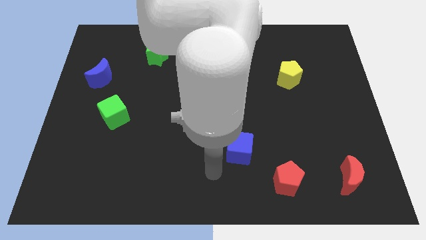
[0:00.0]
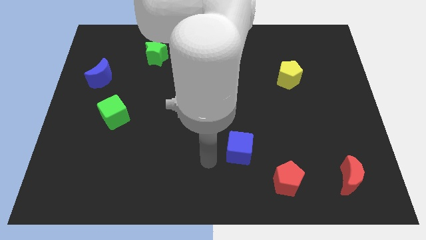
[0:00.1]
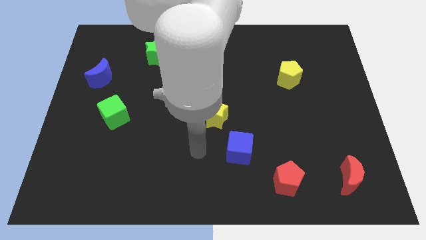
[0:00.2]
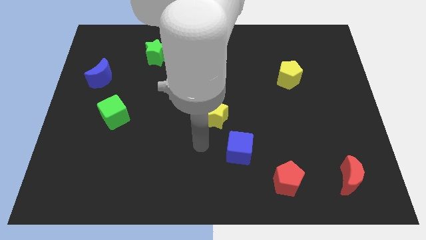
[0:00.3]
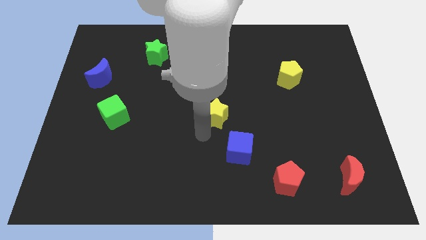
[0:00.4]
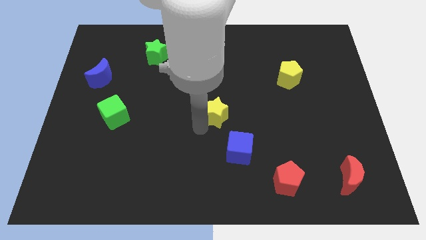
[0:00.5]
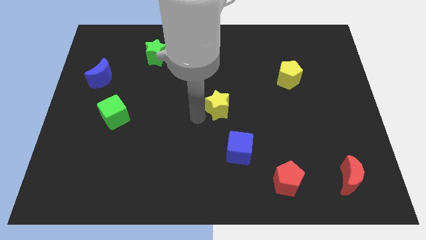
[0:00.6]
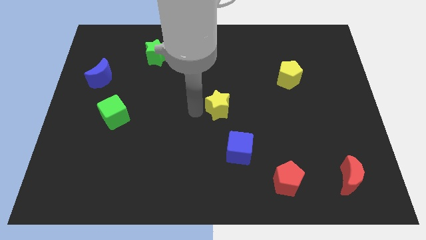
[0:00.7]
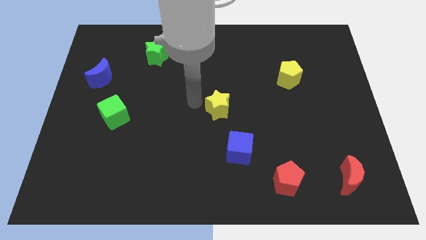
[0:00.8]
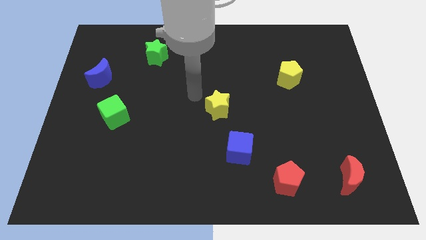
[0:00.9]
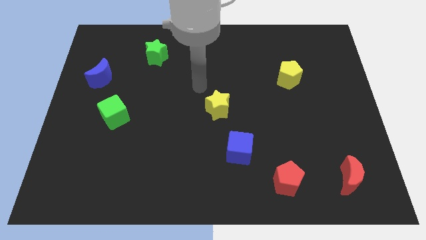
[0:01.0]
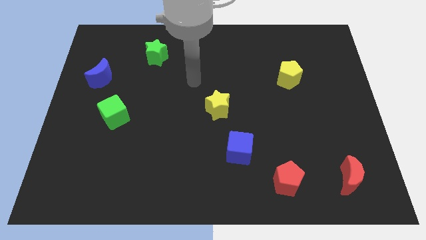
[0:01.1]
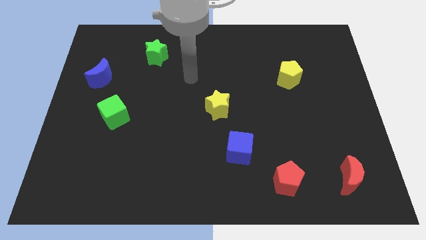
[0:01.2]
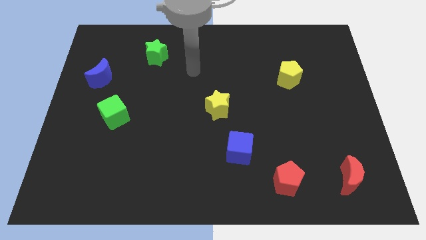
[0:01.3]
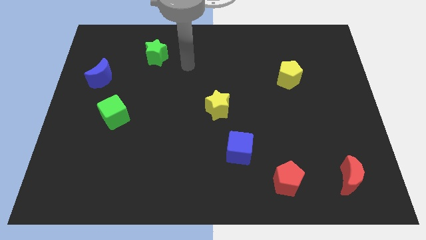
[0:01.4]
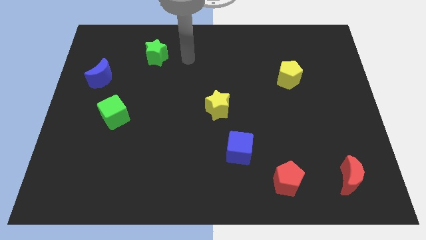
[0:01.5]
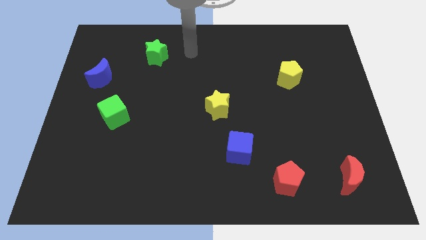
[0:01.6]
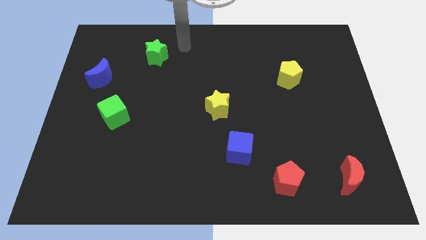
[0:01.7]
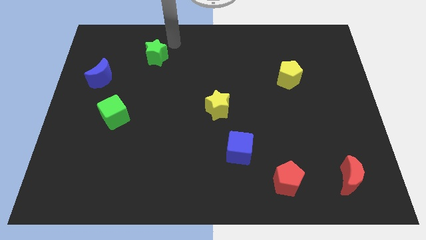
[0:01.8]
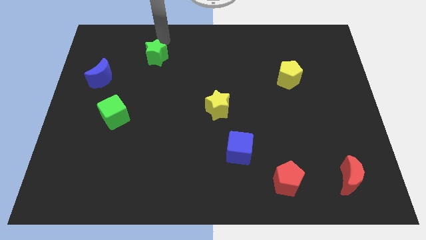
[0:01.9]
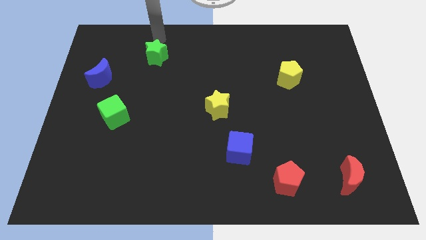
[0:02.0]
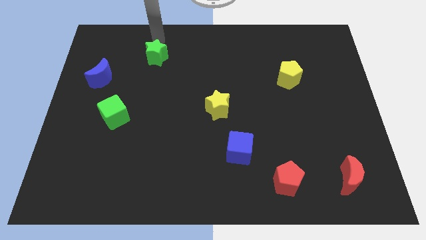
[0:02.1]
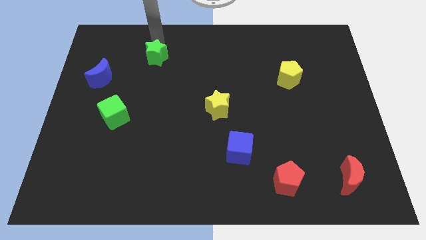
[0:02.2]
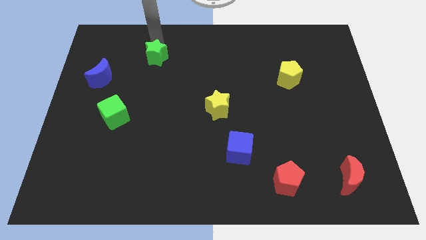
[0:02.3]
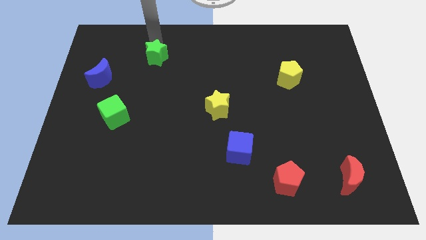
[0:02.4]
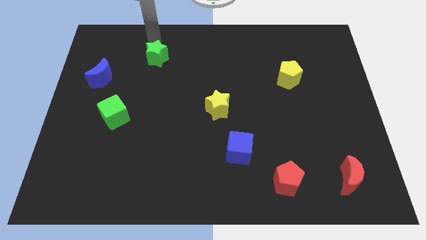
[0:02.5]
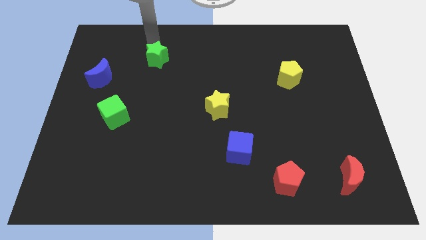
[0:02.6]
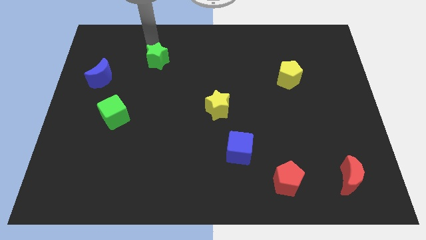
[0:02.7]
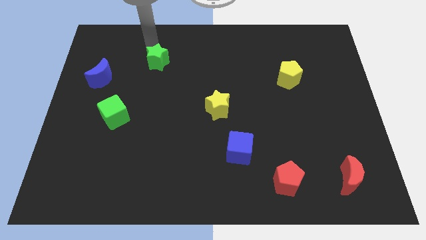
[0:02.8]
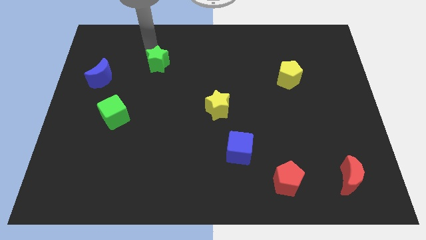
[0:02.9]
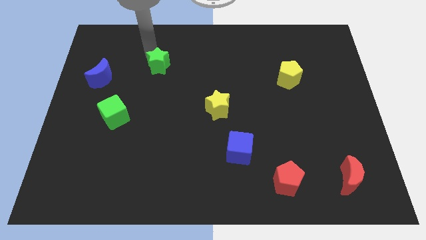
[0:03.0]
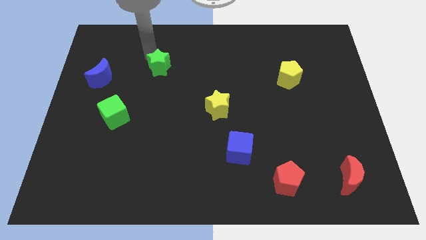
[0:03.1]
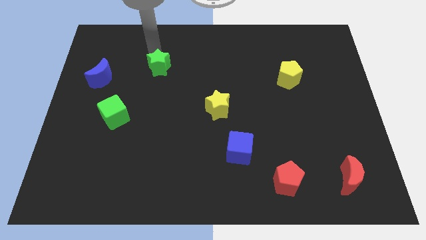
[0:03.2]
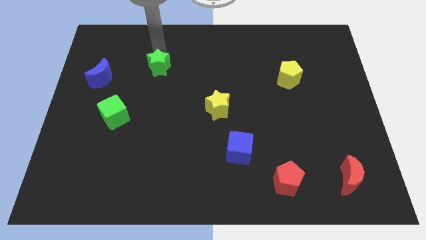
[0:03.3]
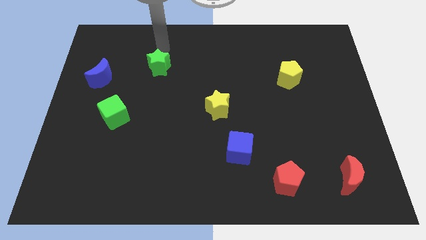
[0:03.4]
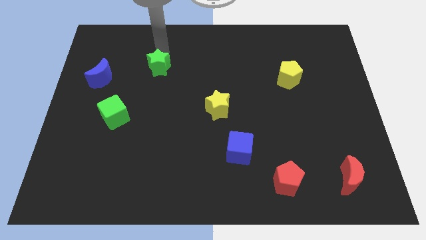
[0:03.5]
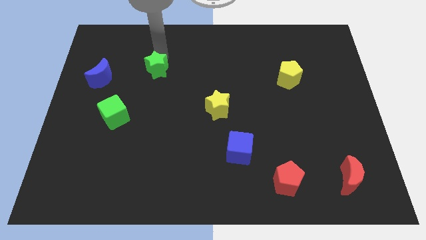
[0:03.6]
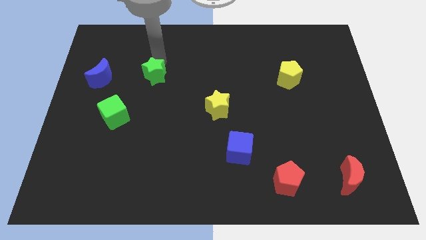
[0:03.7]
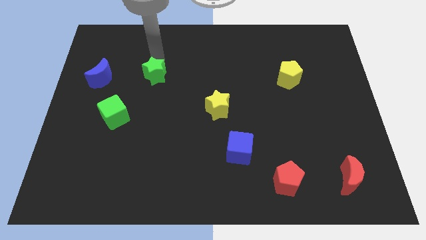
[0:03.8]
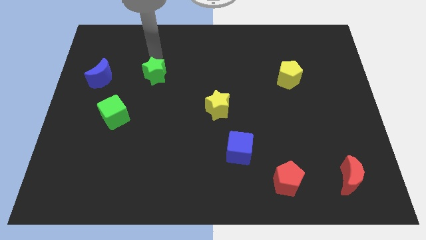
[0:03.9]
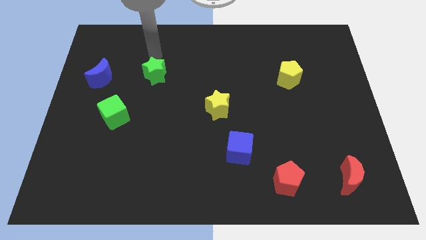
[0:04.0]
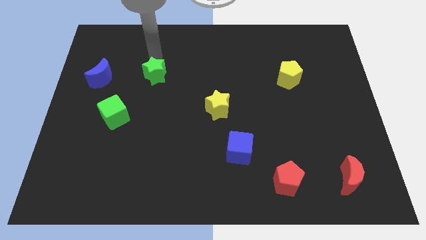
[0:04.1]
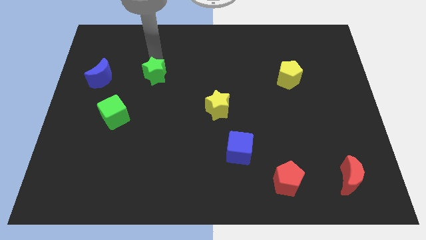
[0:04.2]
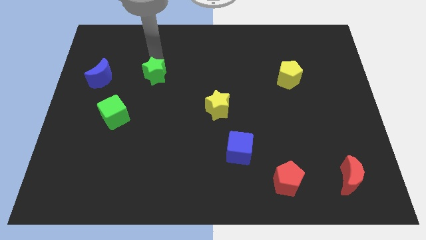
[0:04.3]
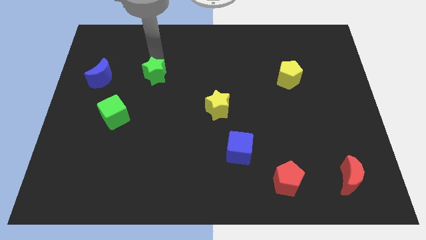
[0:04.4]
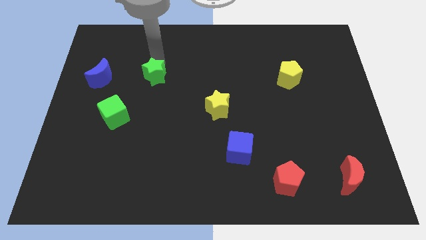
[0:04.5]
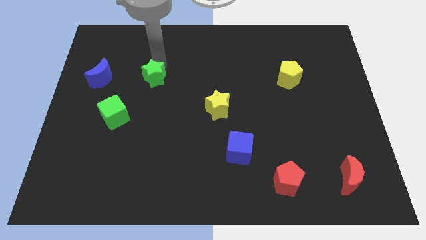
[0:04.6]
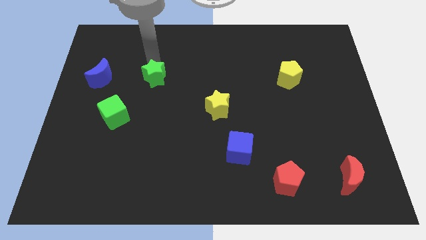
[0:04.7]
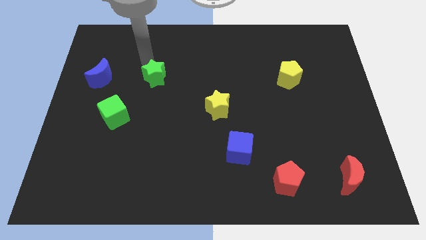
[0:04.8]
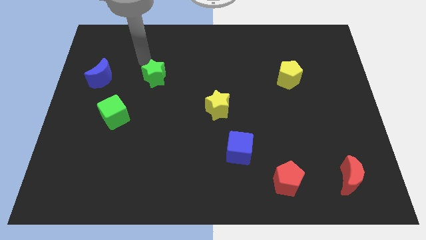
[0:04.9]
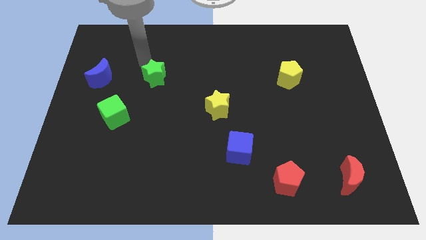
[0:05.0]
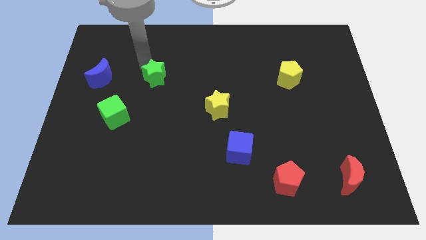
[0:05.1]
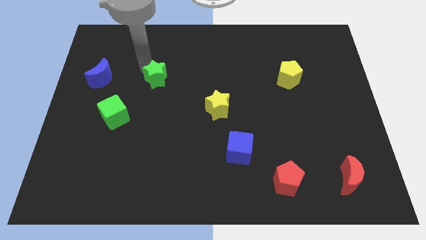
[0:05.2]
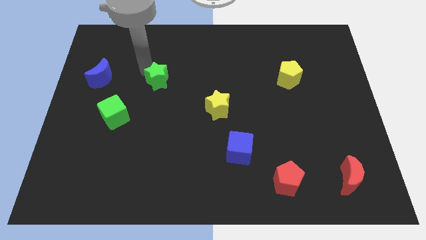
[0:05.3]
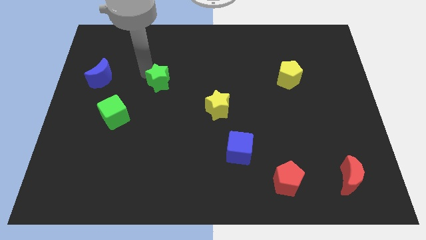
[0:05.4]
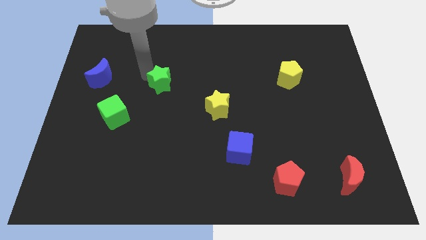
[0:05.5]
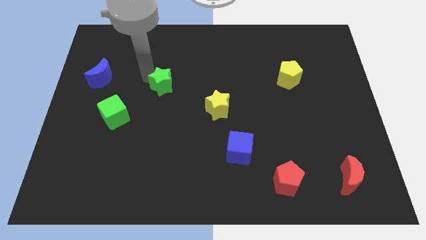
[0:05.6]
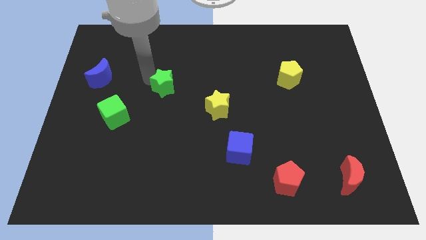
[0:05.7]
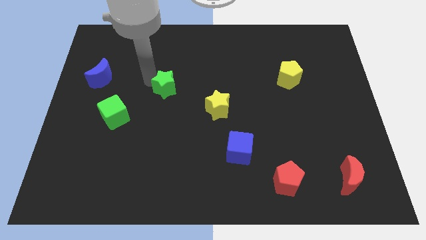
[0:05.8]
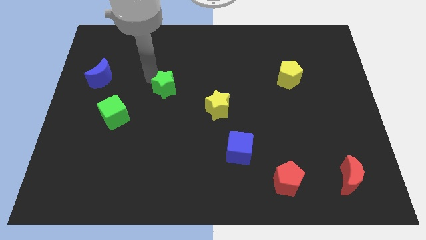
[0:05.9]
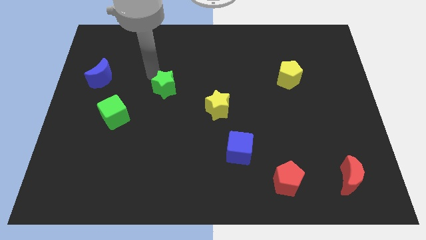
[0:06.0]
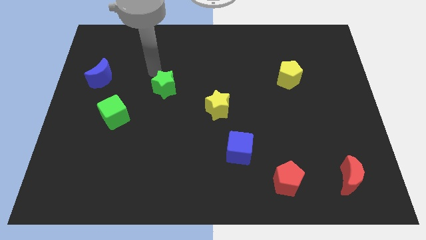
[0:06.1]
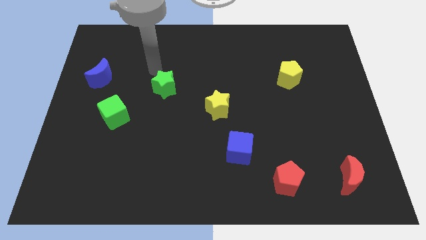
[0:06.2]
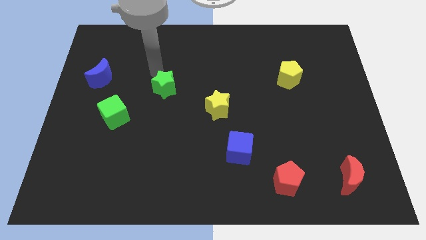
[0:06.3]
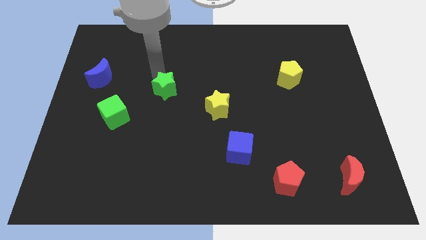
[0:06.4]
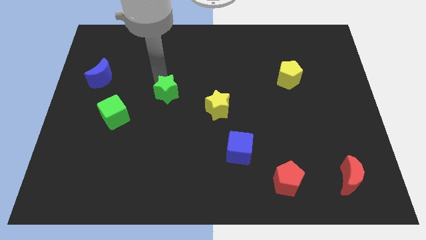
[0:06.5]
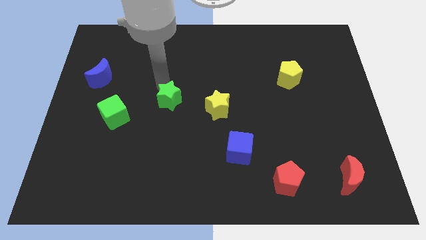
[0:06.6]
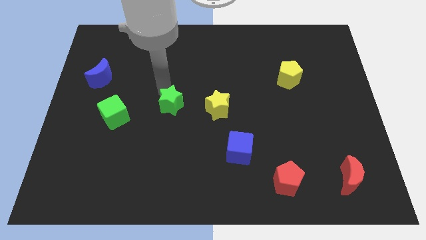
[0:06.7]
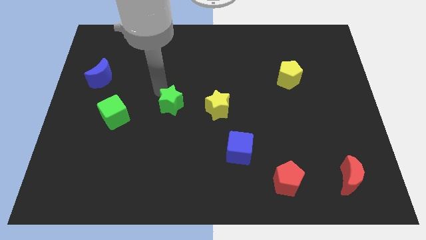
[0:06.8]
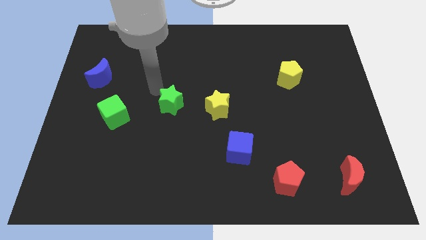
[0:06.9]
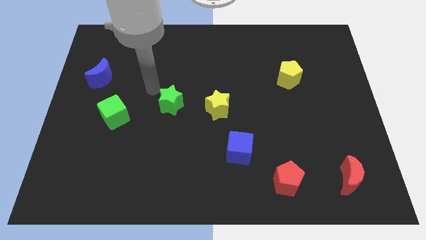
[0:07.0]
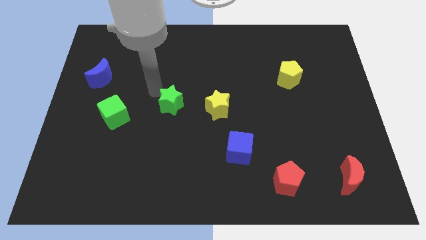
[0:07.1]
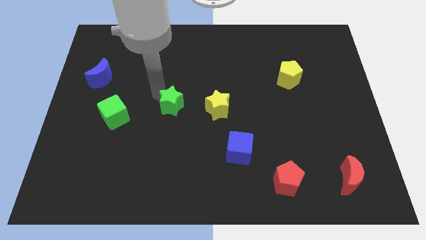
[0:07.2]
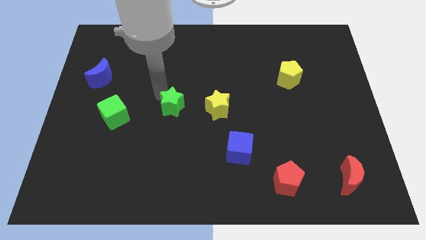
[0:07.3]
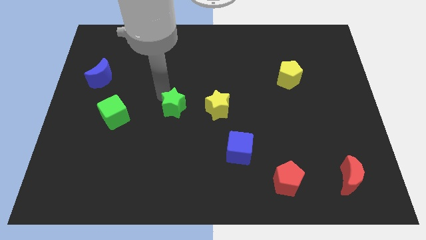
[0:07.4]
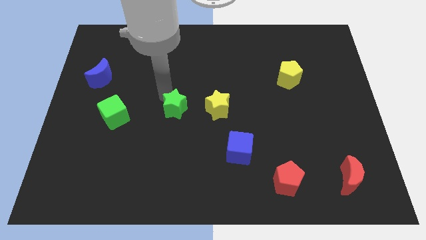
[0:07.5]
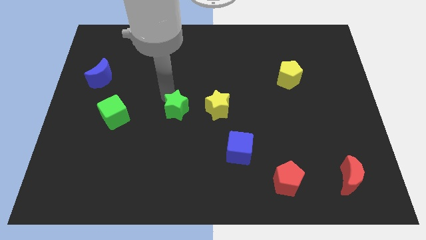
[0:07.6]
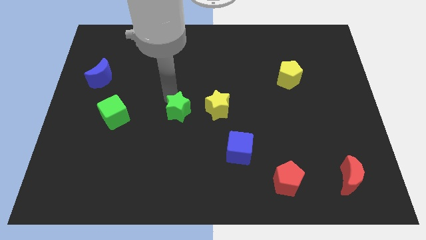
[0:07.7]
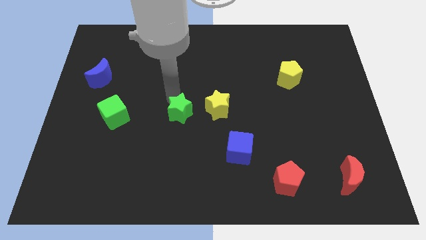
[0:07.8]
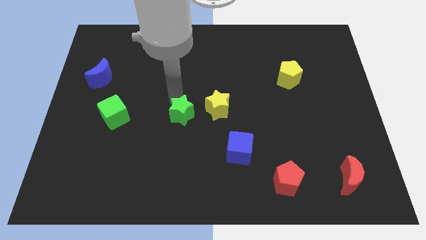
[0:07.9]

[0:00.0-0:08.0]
move the green star diagonally down and to the left of the yellow star
